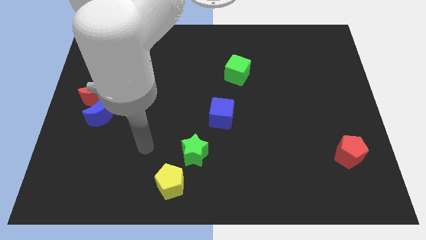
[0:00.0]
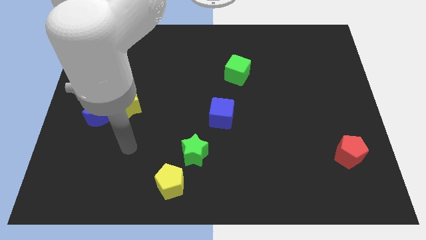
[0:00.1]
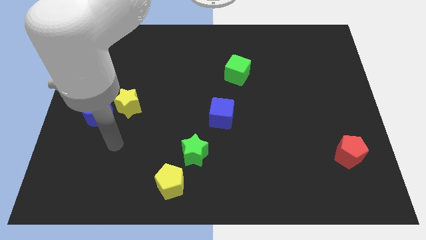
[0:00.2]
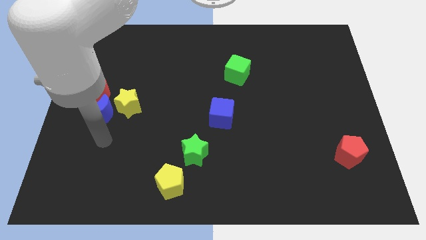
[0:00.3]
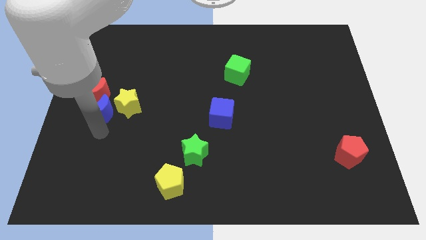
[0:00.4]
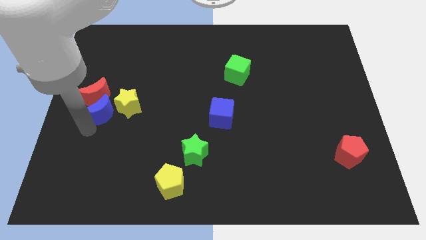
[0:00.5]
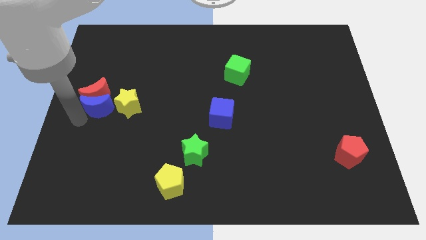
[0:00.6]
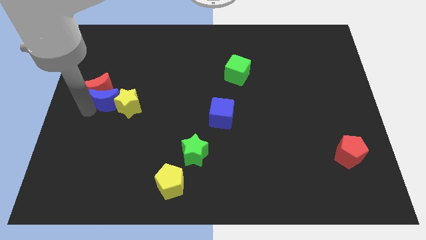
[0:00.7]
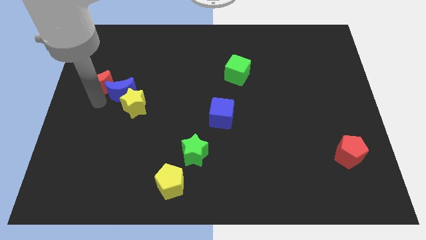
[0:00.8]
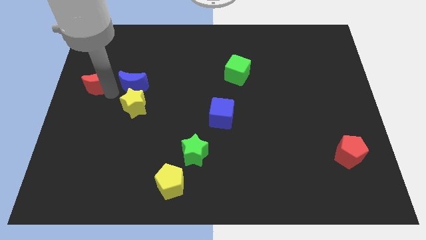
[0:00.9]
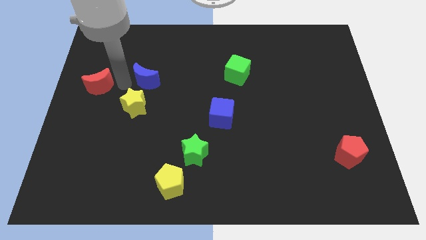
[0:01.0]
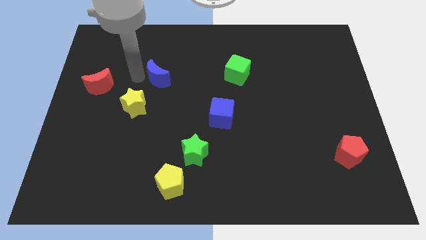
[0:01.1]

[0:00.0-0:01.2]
pull the blue moon apart from the red moon and yellow star

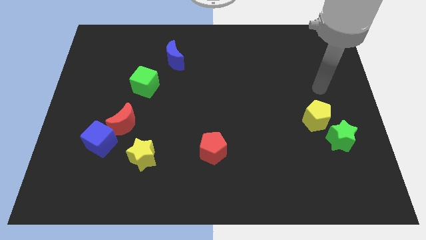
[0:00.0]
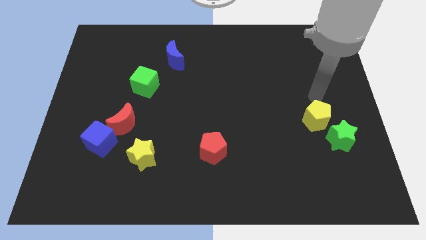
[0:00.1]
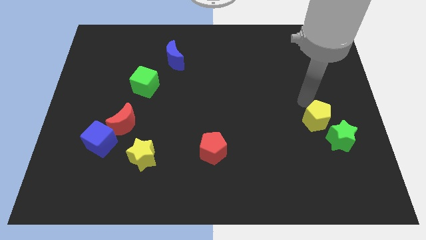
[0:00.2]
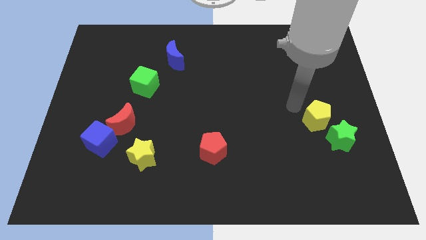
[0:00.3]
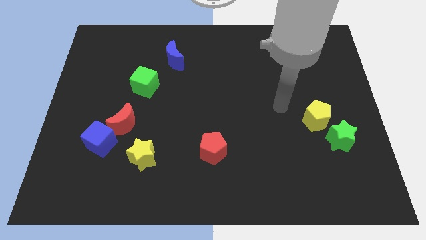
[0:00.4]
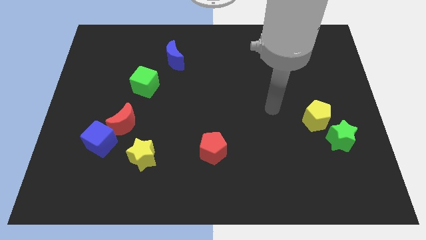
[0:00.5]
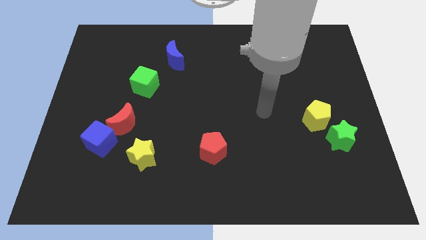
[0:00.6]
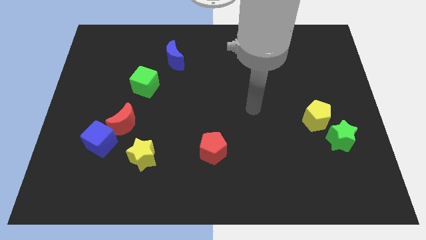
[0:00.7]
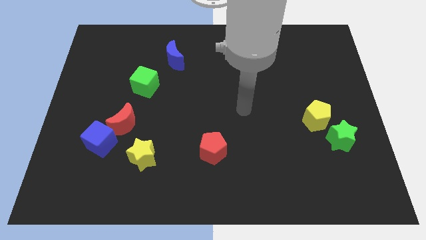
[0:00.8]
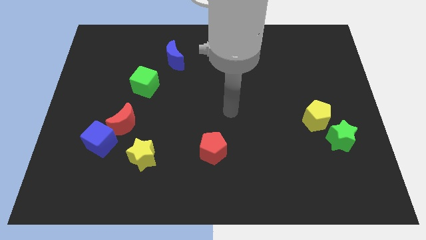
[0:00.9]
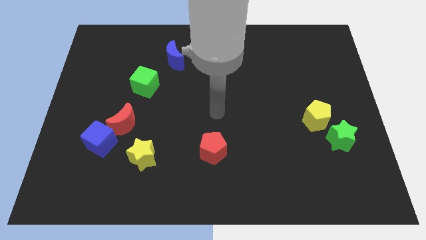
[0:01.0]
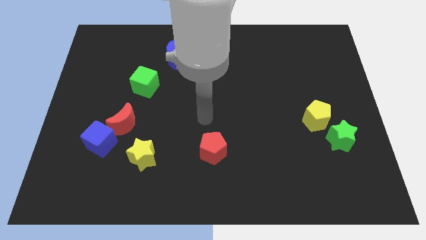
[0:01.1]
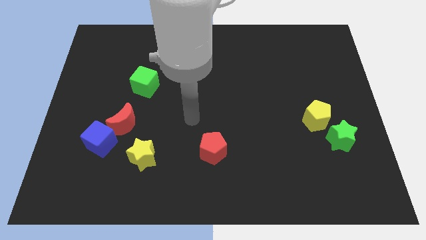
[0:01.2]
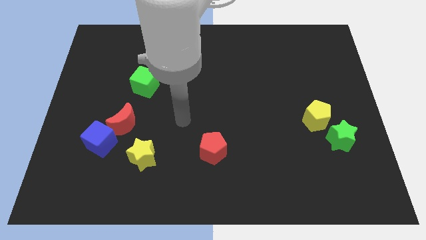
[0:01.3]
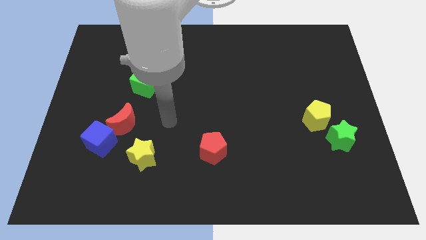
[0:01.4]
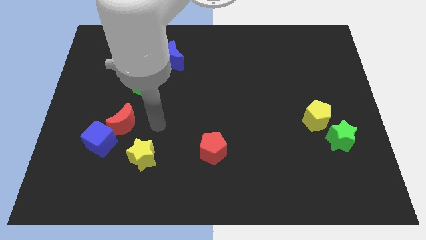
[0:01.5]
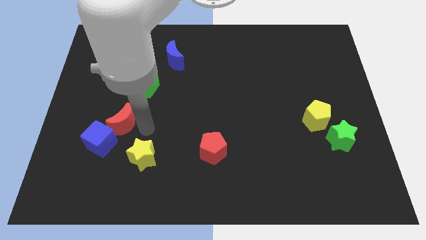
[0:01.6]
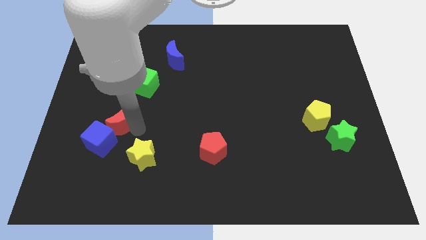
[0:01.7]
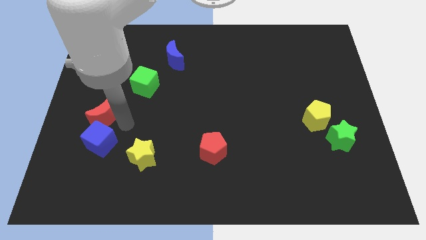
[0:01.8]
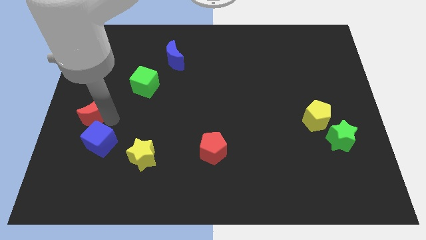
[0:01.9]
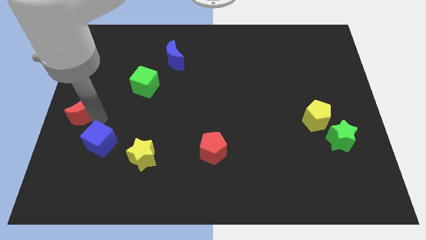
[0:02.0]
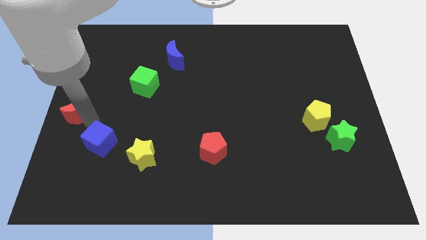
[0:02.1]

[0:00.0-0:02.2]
separate the blue cube from the red moon

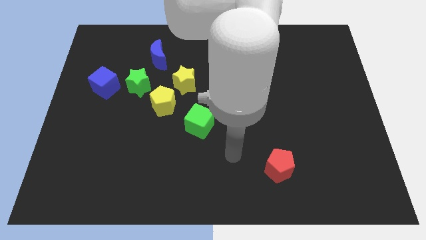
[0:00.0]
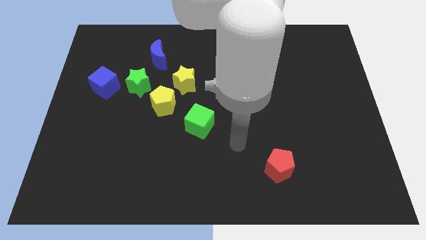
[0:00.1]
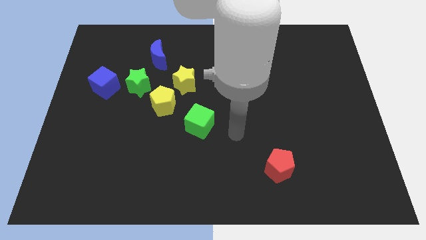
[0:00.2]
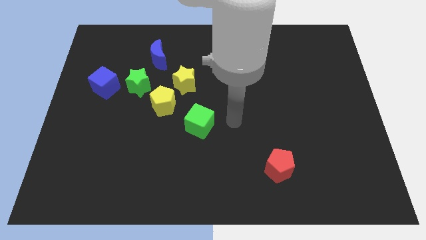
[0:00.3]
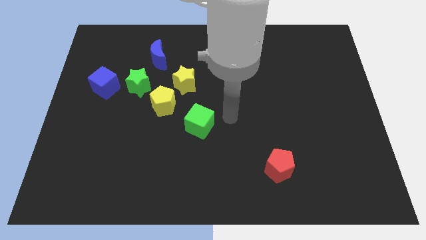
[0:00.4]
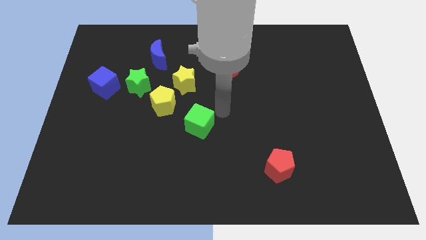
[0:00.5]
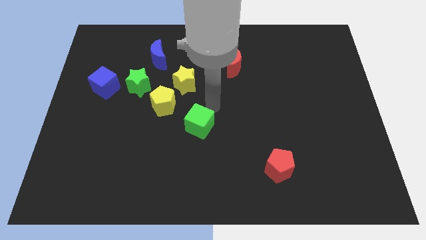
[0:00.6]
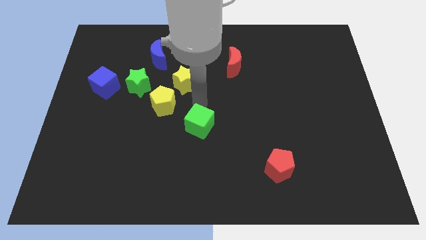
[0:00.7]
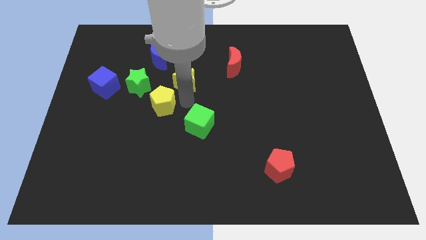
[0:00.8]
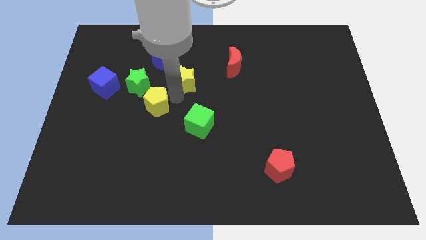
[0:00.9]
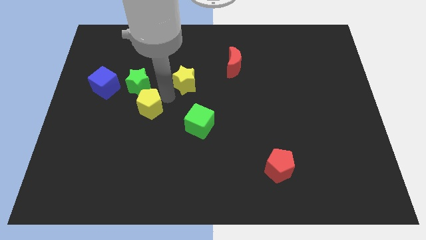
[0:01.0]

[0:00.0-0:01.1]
separate the yellow star from the yellow pentagon

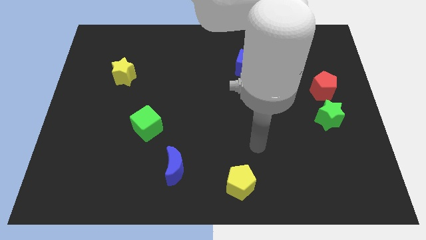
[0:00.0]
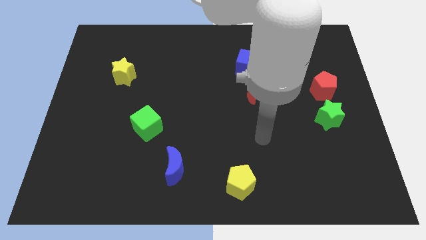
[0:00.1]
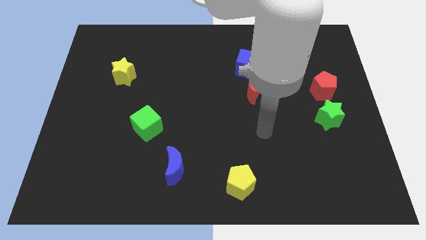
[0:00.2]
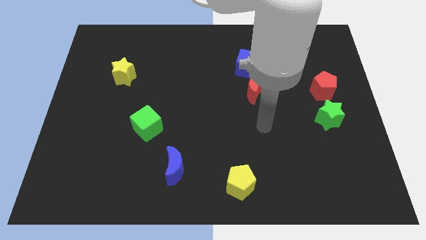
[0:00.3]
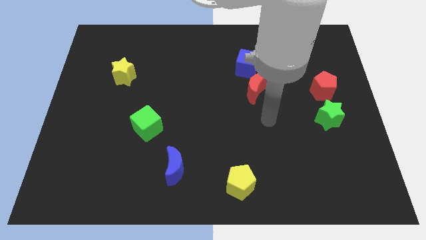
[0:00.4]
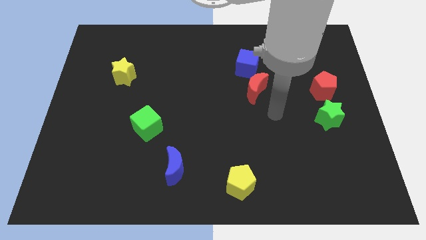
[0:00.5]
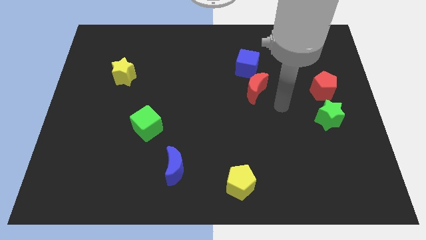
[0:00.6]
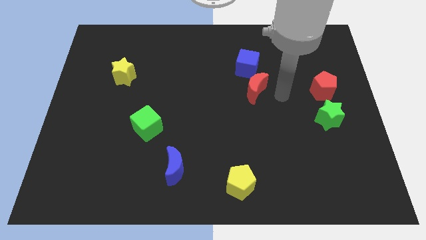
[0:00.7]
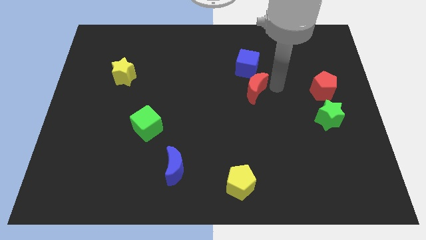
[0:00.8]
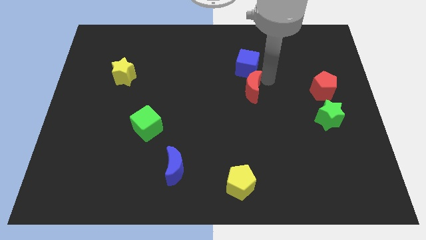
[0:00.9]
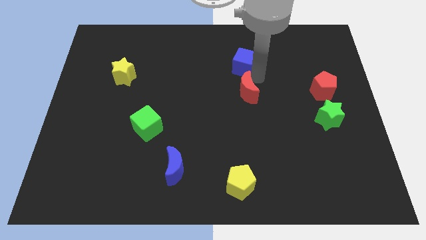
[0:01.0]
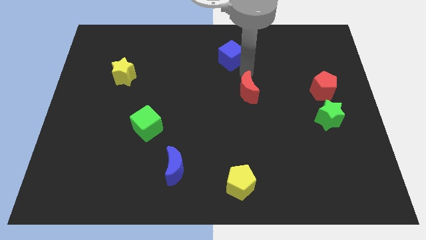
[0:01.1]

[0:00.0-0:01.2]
separate the red moon from the blue cube

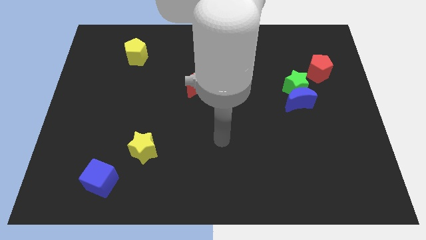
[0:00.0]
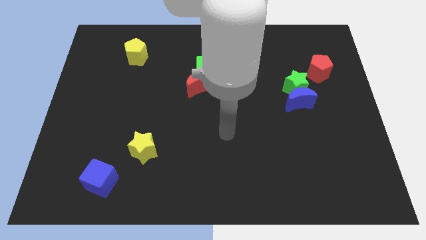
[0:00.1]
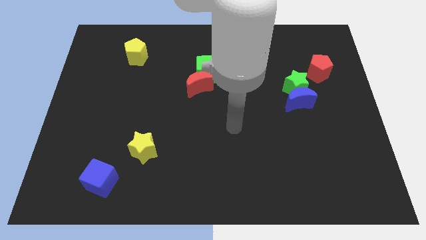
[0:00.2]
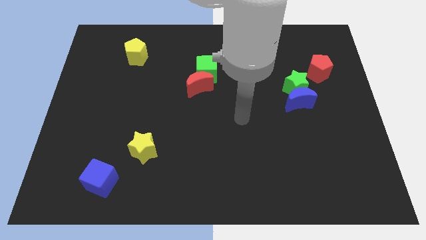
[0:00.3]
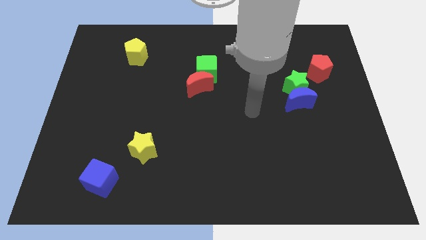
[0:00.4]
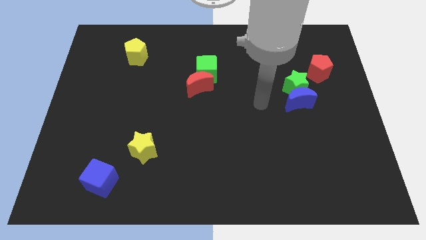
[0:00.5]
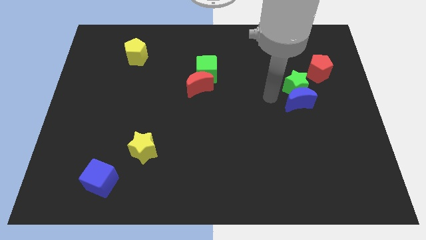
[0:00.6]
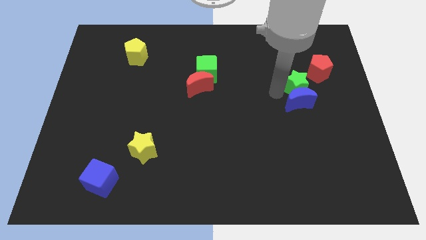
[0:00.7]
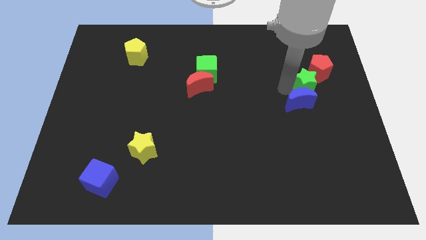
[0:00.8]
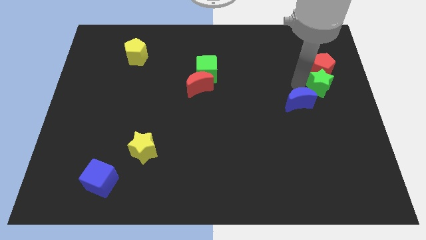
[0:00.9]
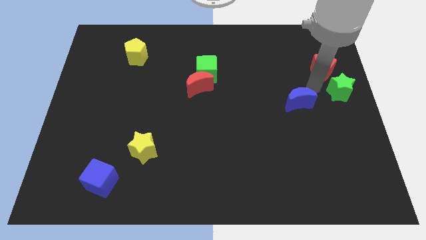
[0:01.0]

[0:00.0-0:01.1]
separate the blue moon from the green star

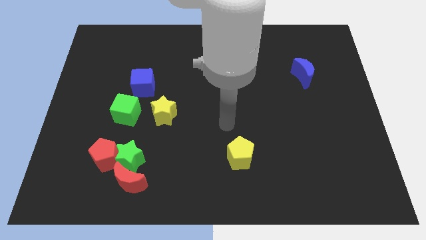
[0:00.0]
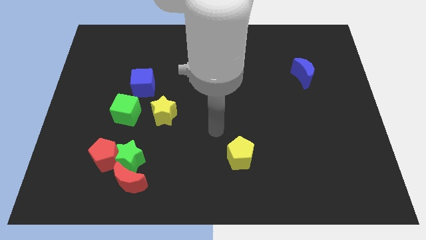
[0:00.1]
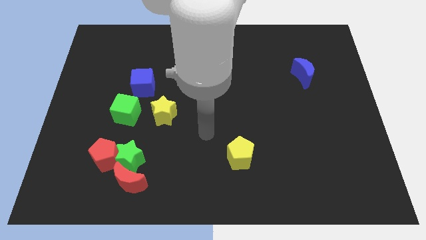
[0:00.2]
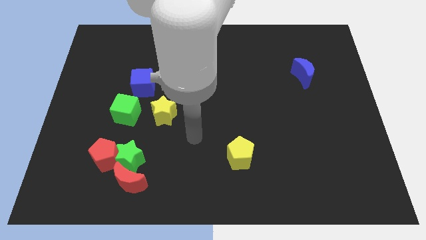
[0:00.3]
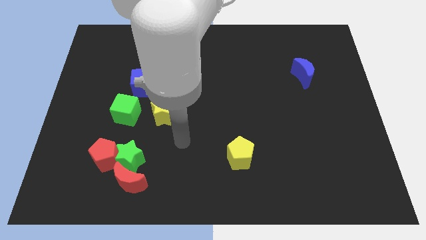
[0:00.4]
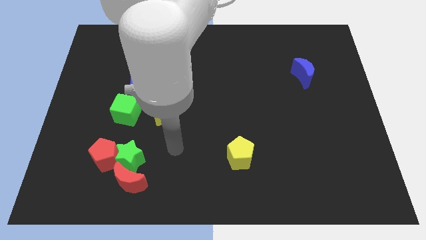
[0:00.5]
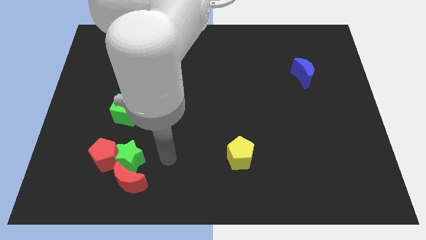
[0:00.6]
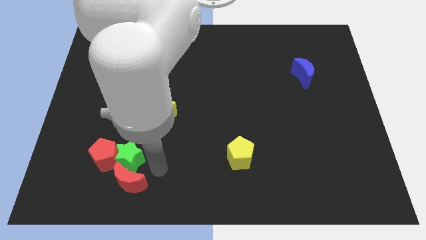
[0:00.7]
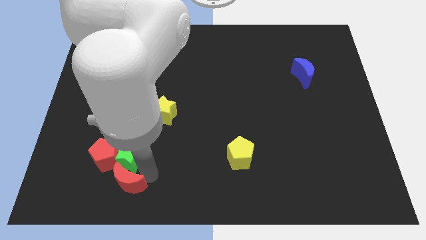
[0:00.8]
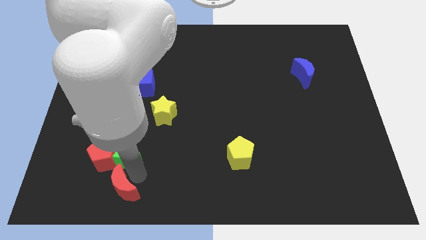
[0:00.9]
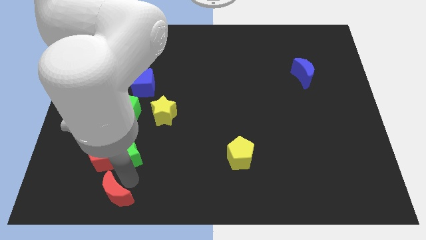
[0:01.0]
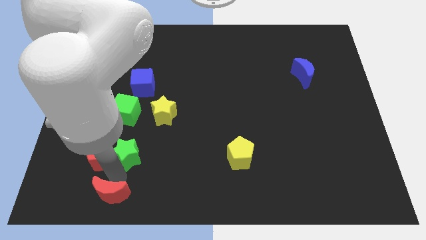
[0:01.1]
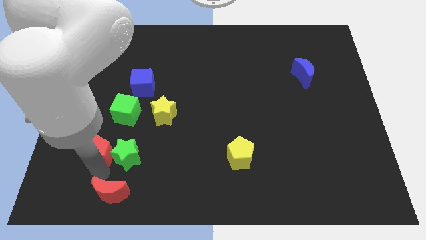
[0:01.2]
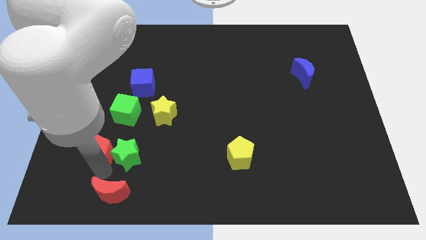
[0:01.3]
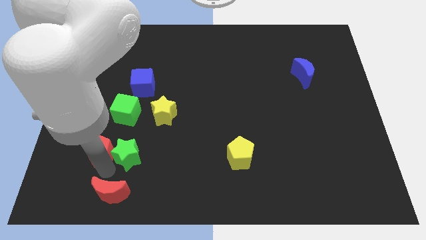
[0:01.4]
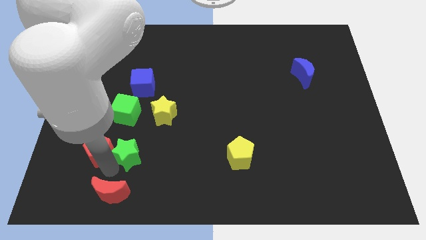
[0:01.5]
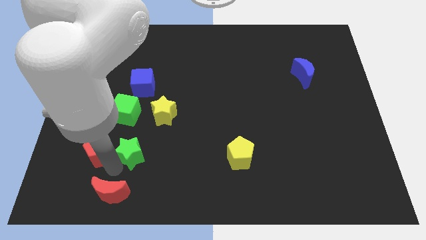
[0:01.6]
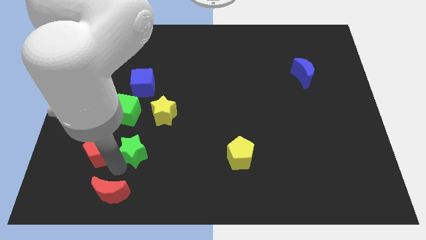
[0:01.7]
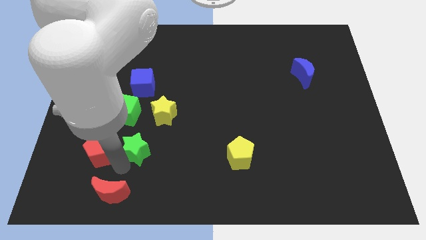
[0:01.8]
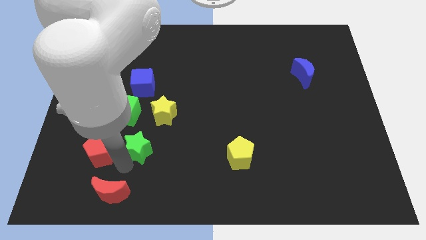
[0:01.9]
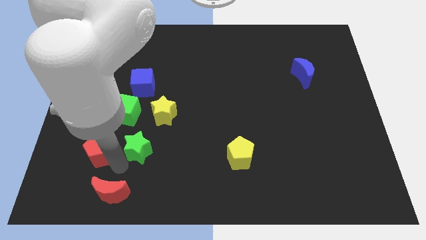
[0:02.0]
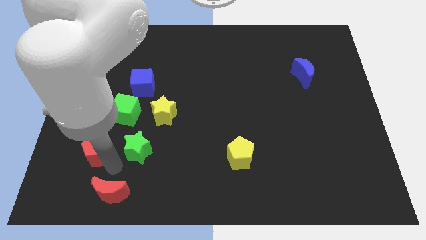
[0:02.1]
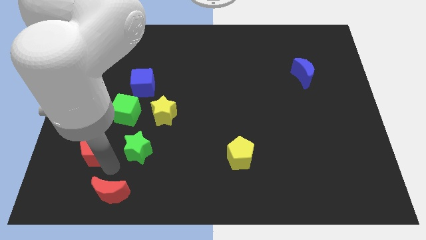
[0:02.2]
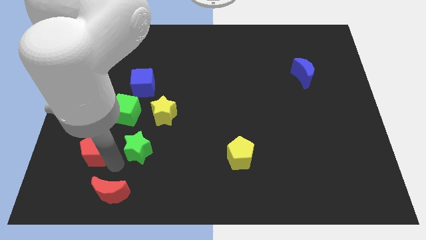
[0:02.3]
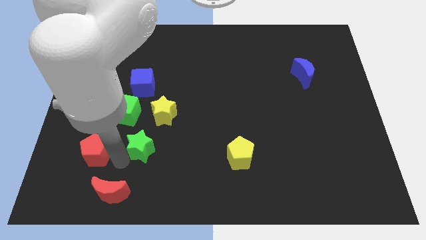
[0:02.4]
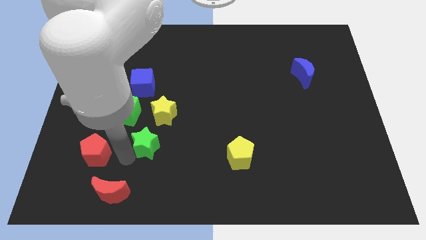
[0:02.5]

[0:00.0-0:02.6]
pull the green star apart from the red moon and red pentagon
